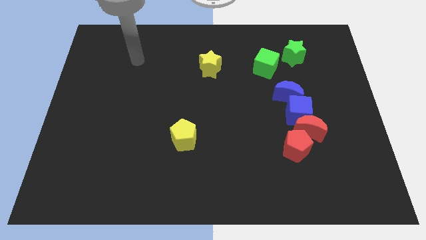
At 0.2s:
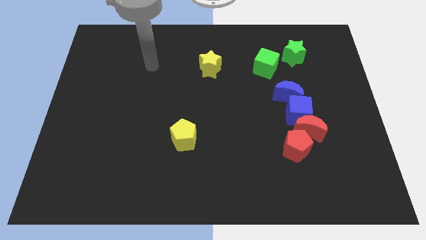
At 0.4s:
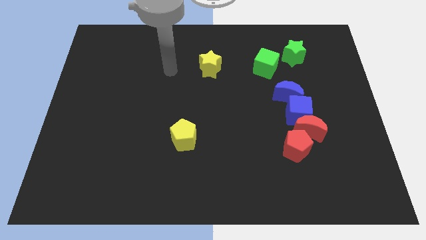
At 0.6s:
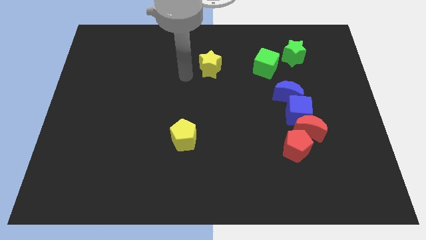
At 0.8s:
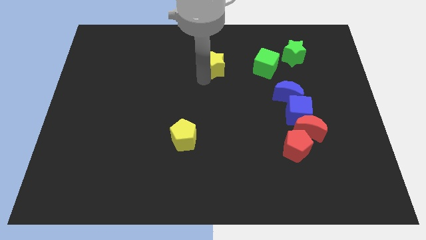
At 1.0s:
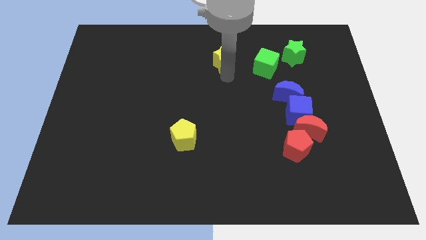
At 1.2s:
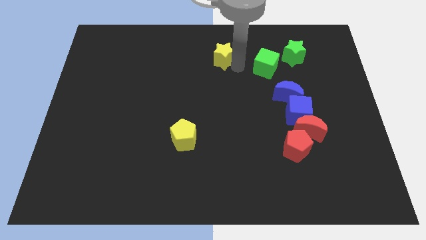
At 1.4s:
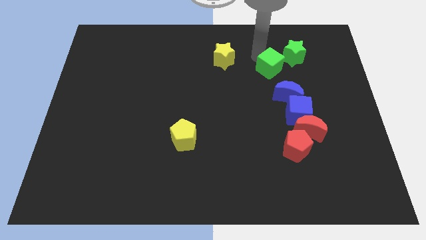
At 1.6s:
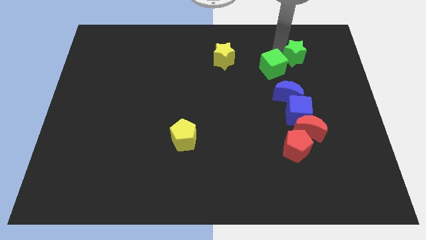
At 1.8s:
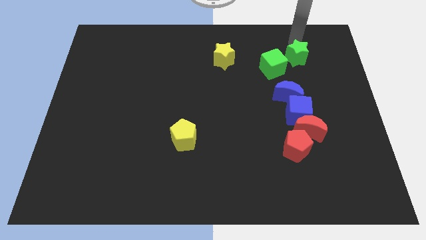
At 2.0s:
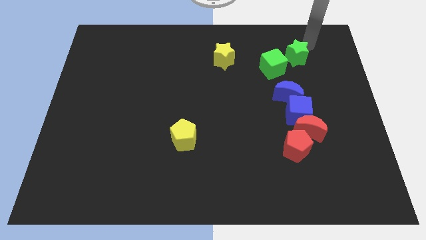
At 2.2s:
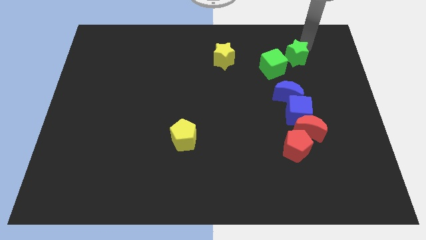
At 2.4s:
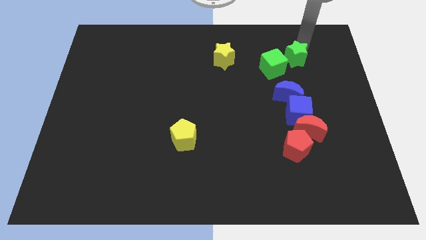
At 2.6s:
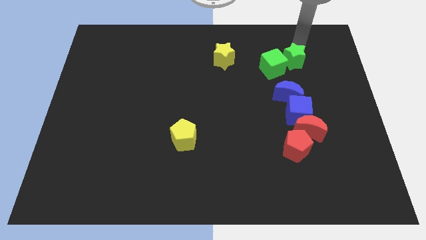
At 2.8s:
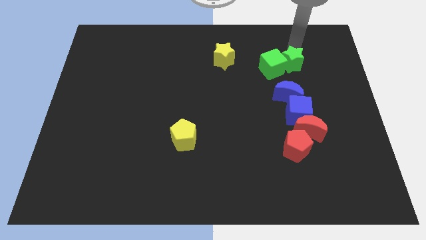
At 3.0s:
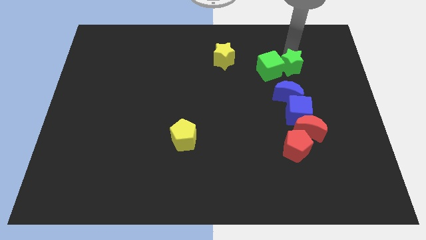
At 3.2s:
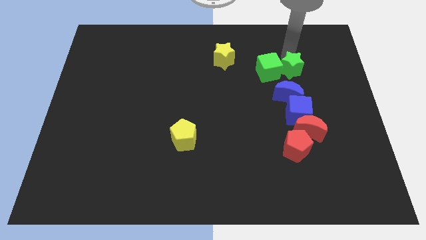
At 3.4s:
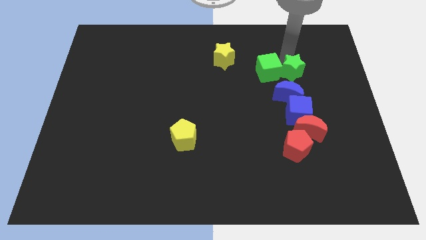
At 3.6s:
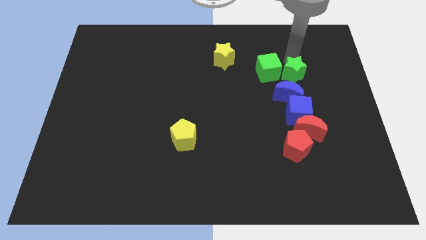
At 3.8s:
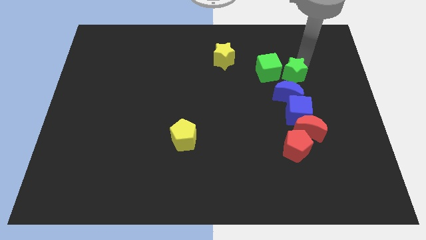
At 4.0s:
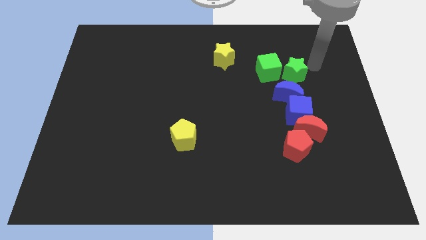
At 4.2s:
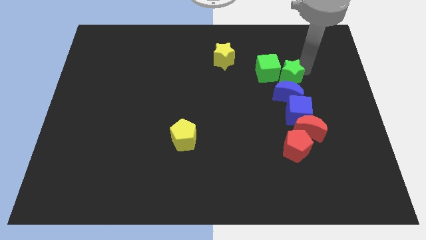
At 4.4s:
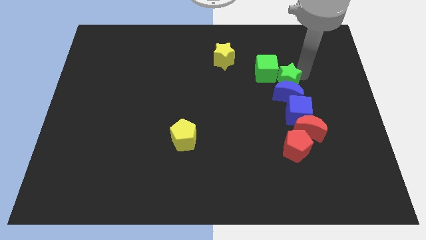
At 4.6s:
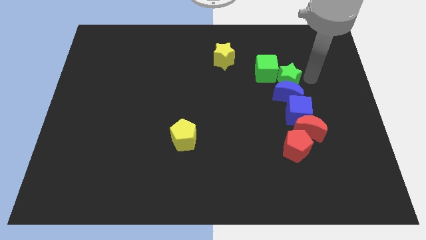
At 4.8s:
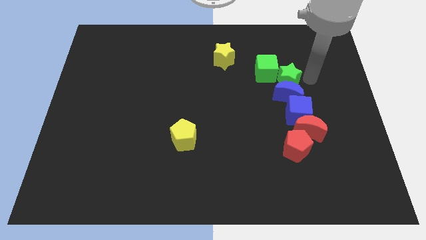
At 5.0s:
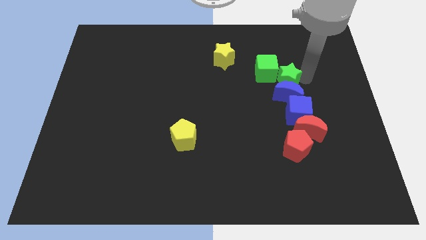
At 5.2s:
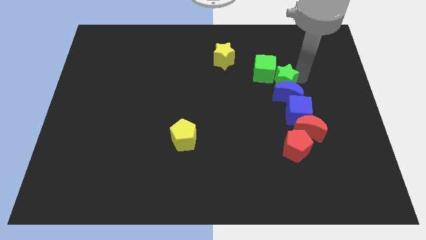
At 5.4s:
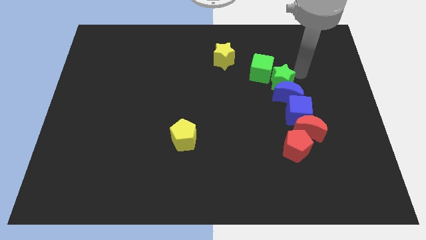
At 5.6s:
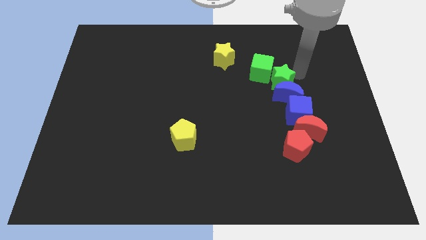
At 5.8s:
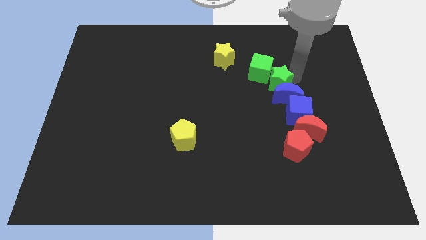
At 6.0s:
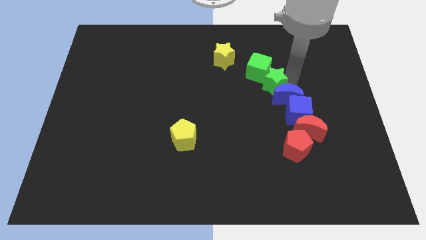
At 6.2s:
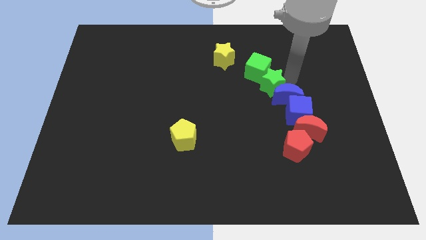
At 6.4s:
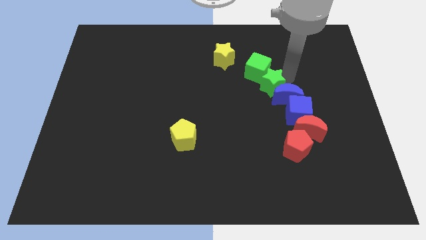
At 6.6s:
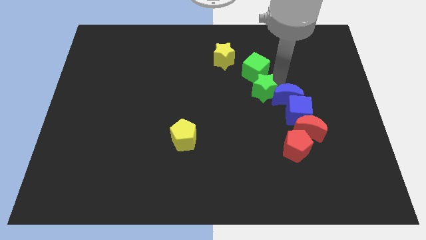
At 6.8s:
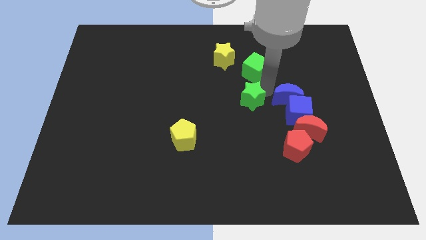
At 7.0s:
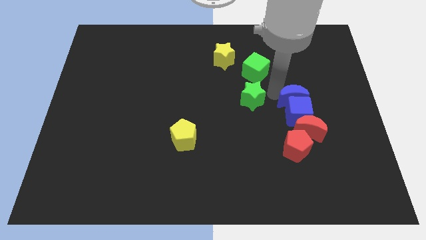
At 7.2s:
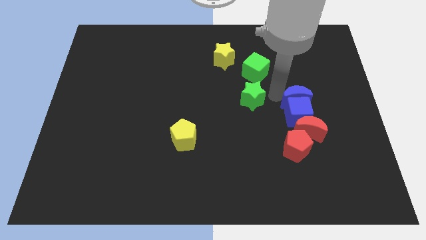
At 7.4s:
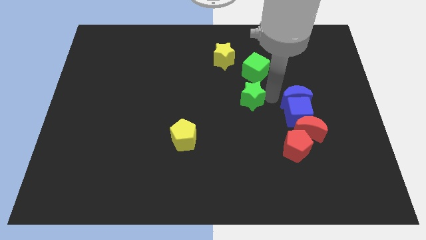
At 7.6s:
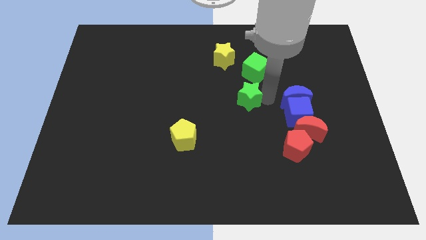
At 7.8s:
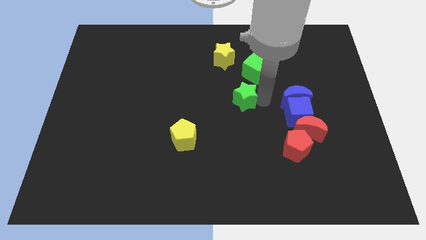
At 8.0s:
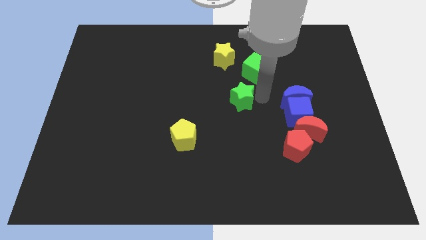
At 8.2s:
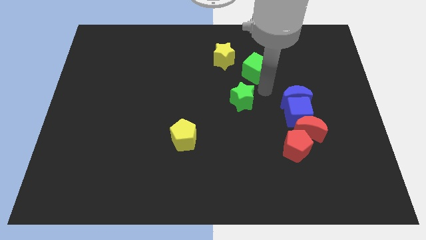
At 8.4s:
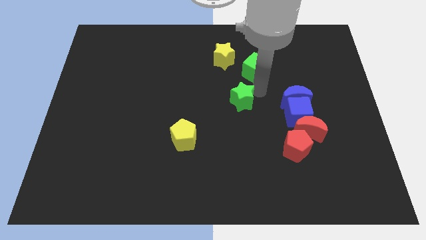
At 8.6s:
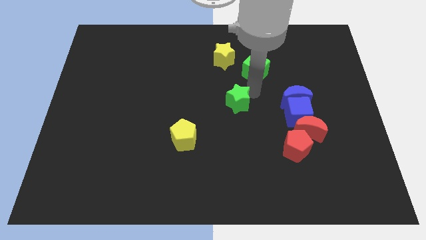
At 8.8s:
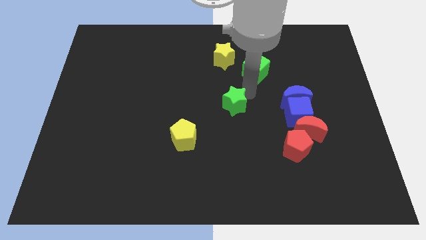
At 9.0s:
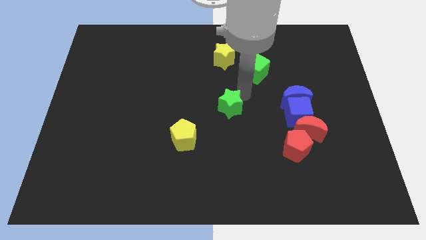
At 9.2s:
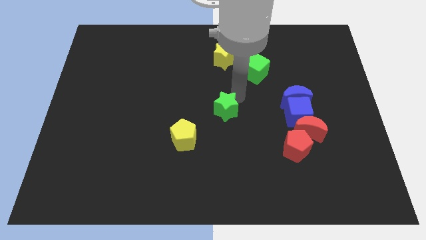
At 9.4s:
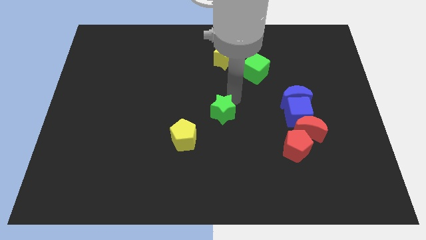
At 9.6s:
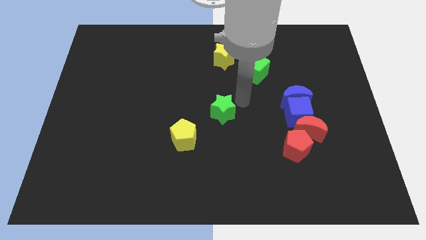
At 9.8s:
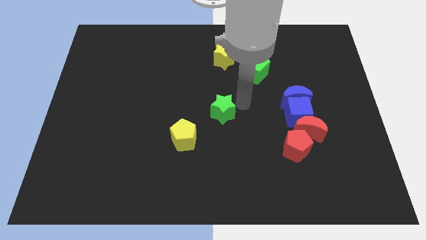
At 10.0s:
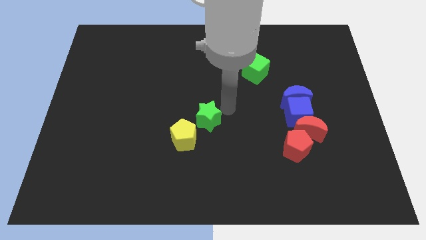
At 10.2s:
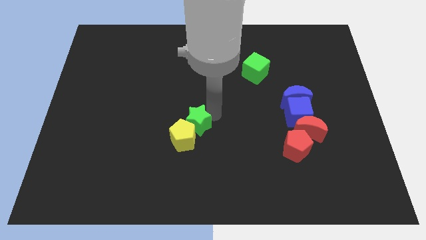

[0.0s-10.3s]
slide the green star next to the yellow pentagon

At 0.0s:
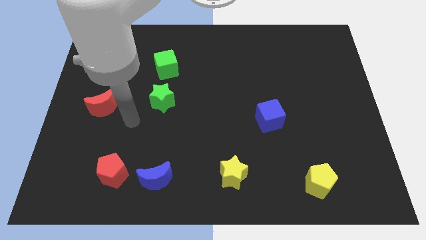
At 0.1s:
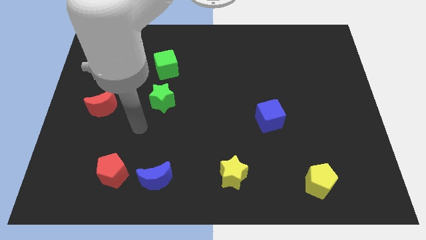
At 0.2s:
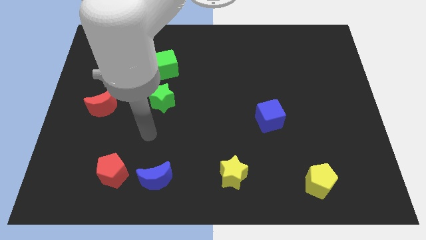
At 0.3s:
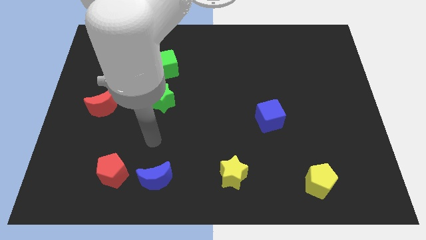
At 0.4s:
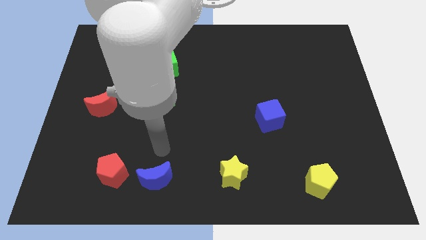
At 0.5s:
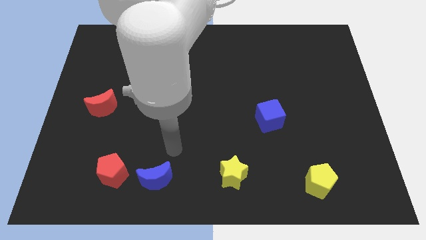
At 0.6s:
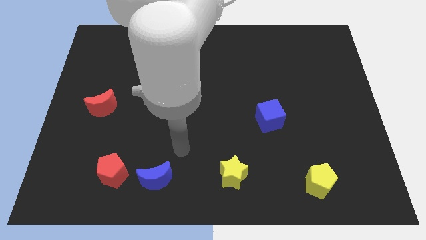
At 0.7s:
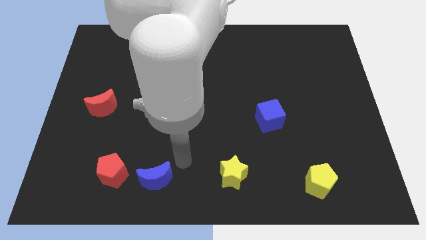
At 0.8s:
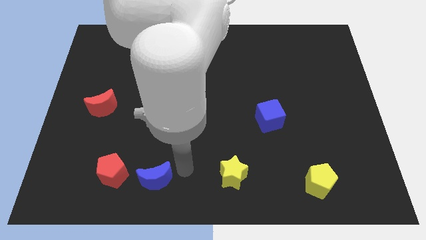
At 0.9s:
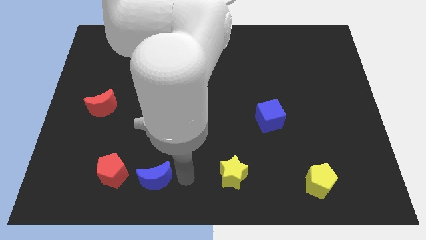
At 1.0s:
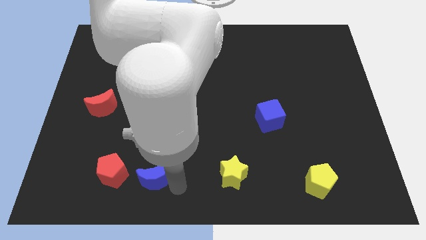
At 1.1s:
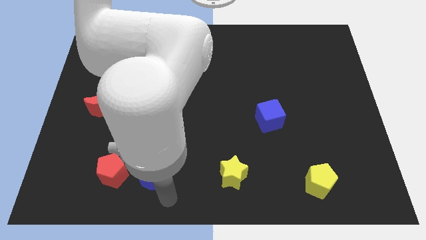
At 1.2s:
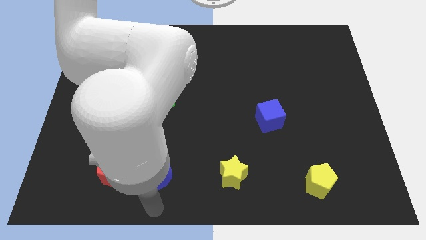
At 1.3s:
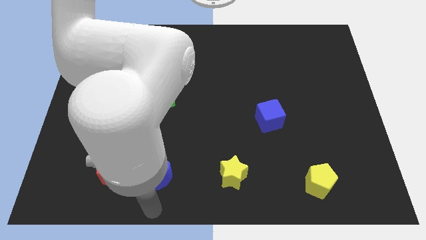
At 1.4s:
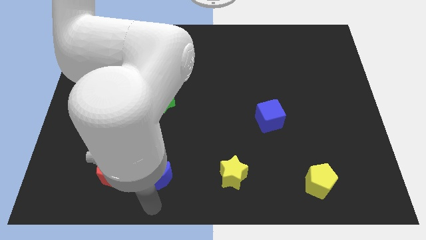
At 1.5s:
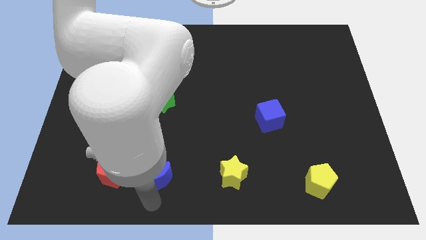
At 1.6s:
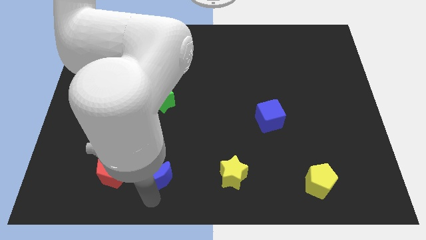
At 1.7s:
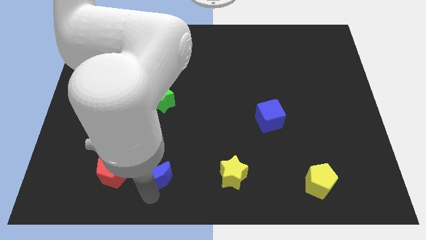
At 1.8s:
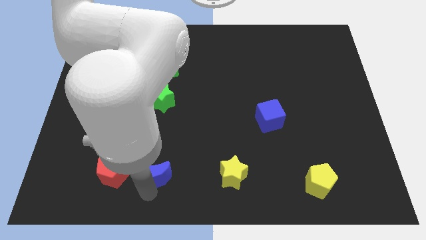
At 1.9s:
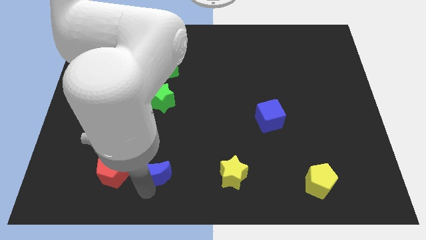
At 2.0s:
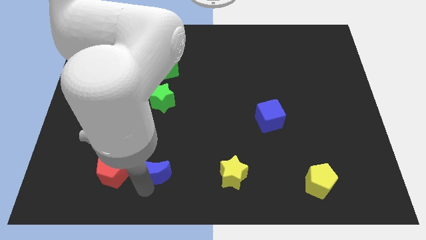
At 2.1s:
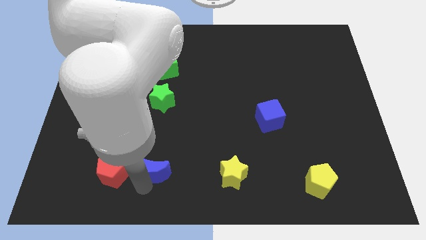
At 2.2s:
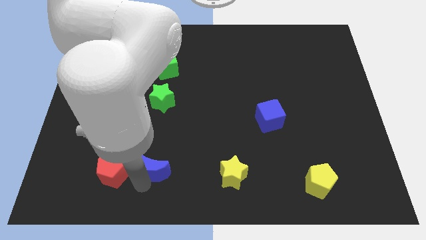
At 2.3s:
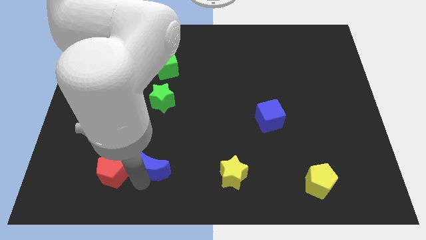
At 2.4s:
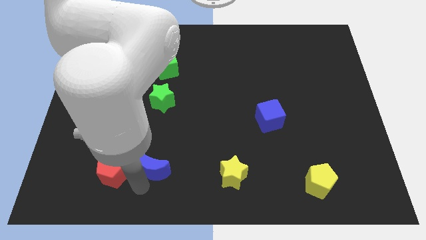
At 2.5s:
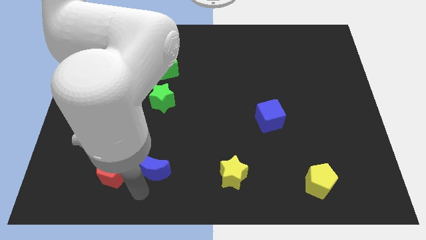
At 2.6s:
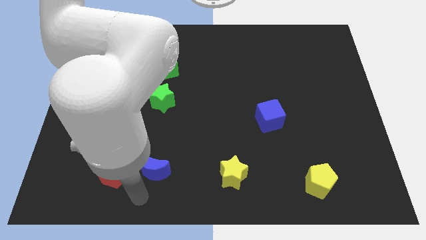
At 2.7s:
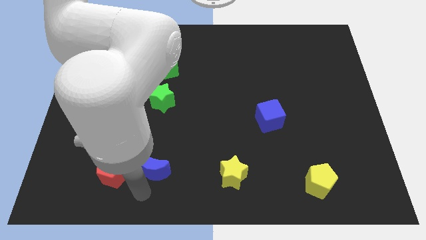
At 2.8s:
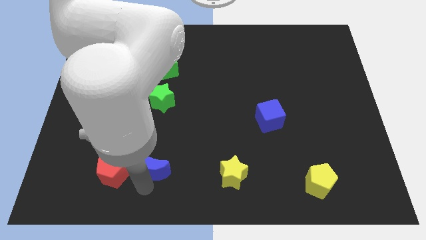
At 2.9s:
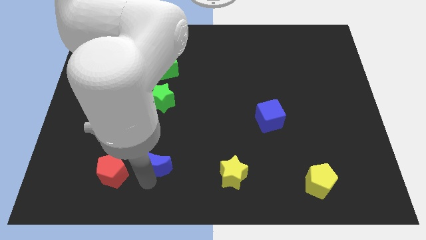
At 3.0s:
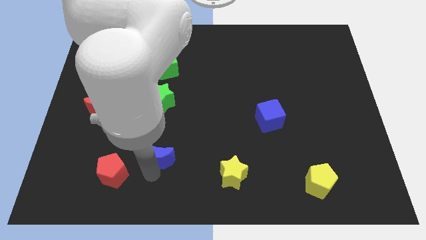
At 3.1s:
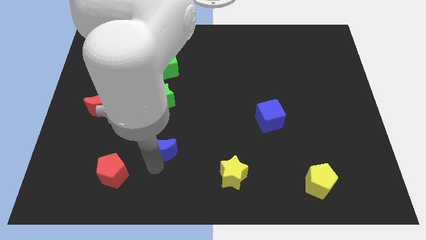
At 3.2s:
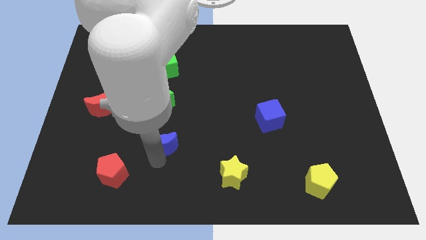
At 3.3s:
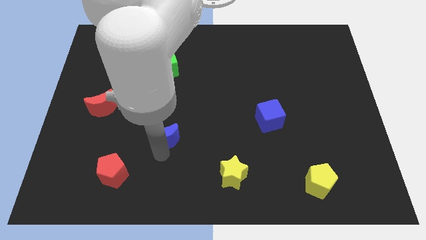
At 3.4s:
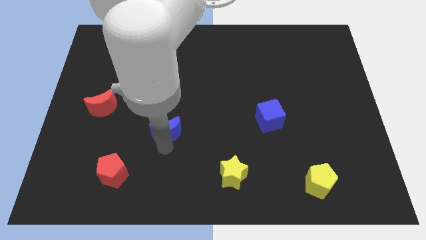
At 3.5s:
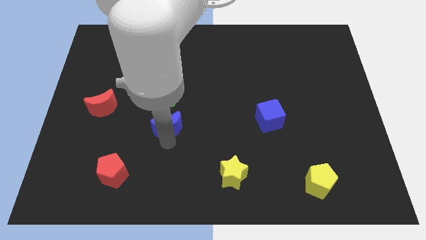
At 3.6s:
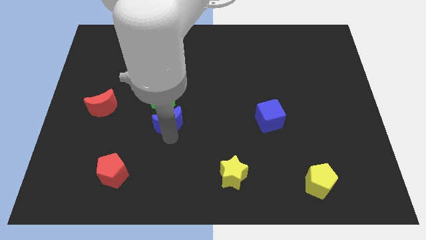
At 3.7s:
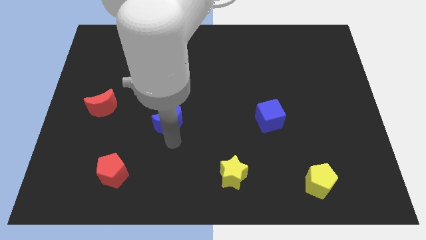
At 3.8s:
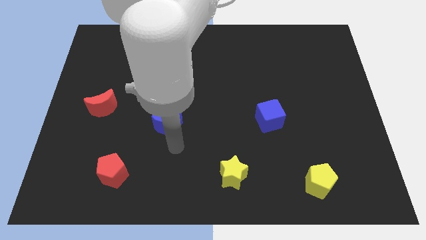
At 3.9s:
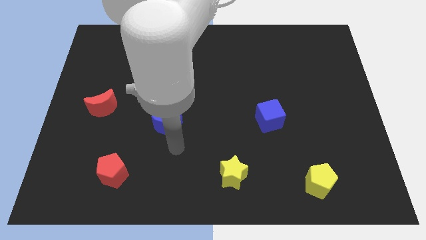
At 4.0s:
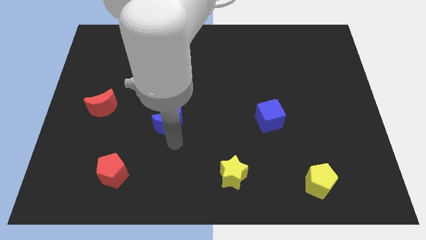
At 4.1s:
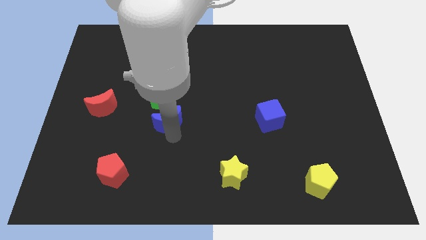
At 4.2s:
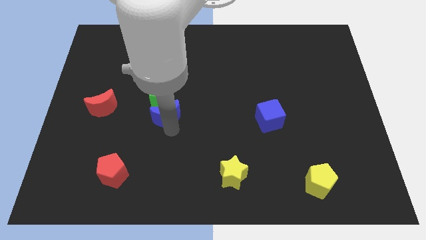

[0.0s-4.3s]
push the blue moon towards the green star
